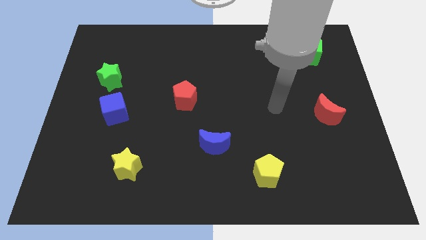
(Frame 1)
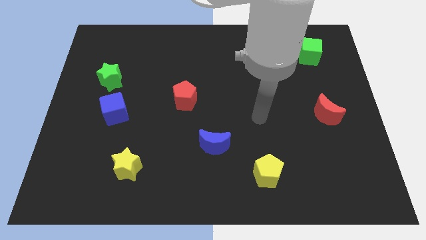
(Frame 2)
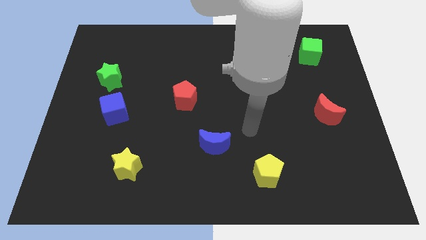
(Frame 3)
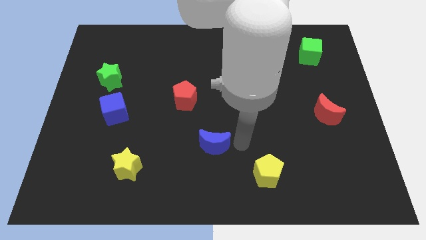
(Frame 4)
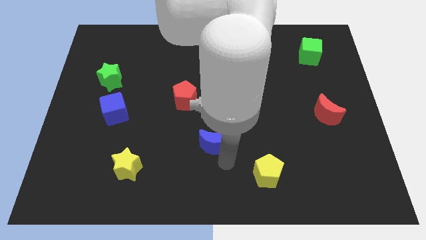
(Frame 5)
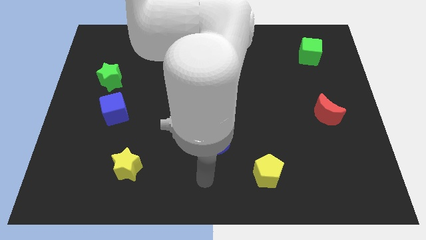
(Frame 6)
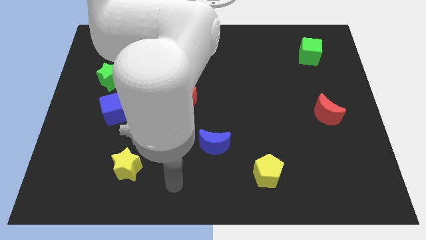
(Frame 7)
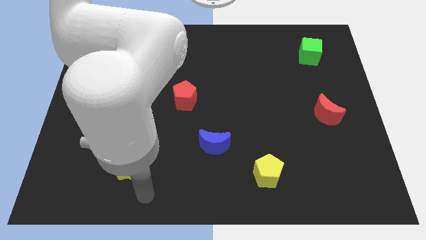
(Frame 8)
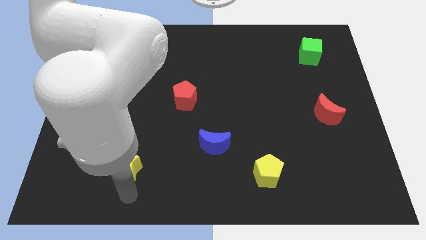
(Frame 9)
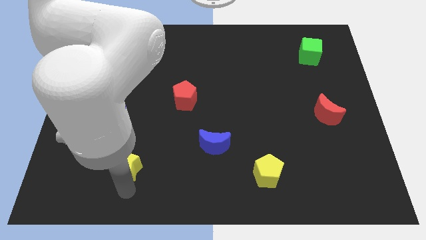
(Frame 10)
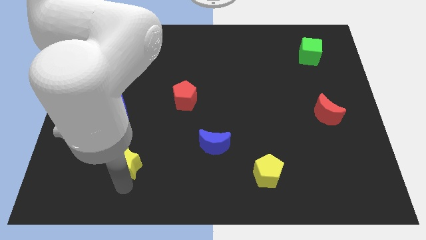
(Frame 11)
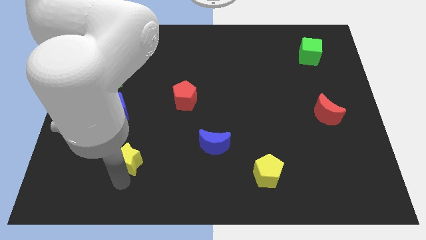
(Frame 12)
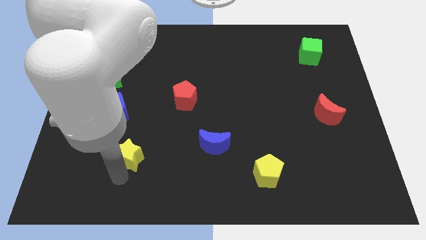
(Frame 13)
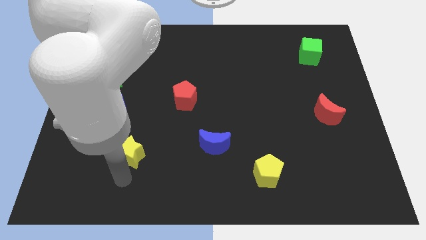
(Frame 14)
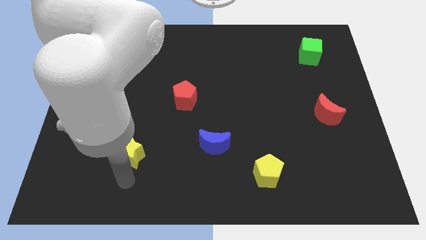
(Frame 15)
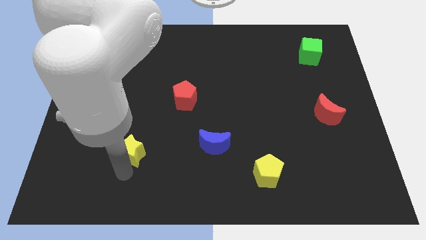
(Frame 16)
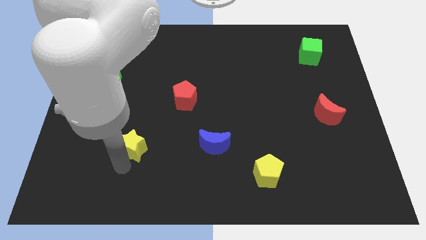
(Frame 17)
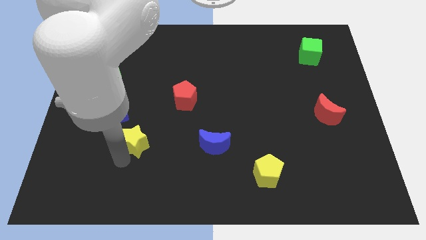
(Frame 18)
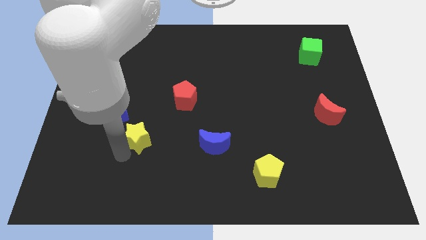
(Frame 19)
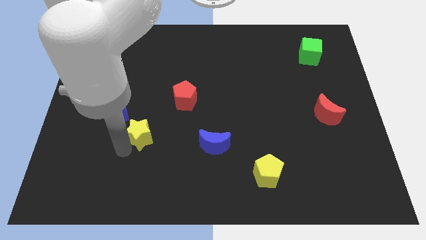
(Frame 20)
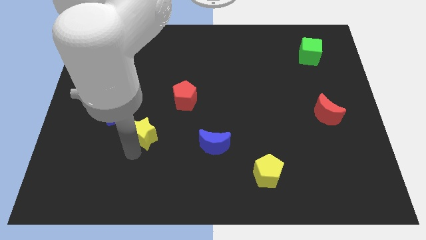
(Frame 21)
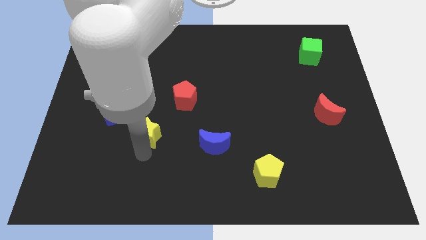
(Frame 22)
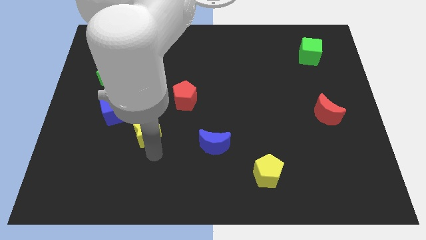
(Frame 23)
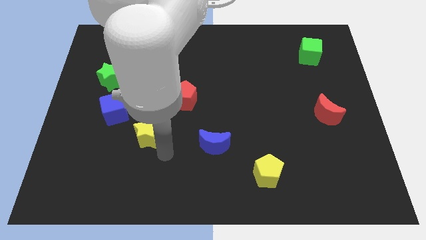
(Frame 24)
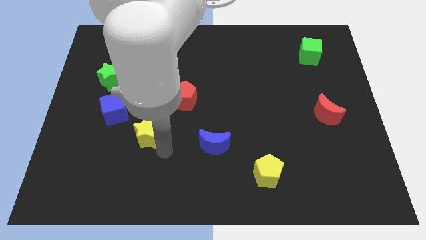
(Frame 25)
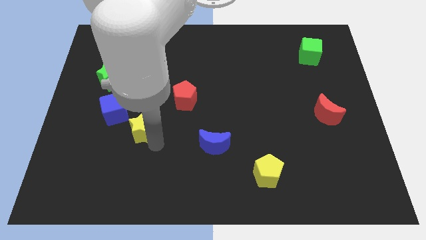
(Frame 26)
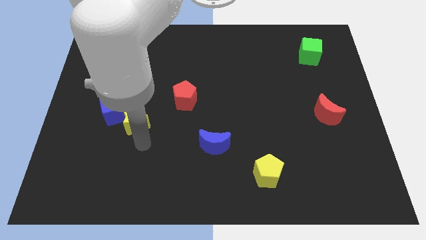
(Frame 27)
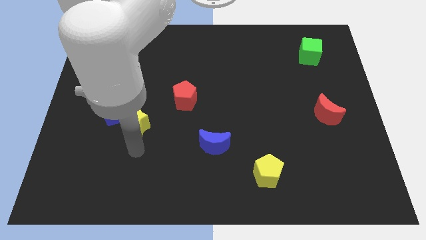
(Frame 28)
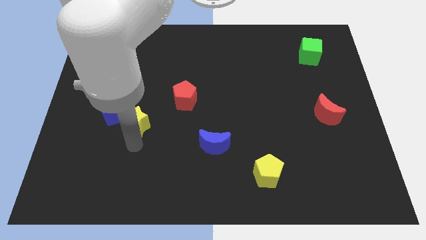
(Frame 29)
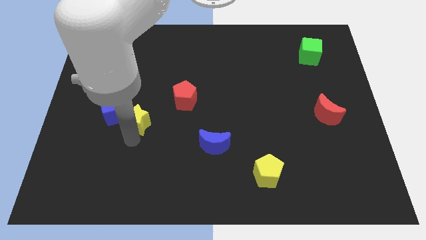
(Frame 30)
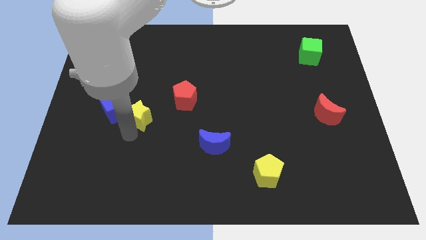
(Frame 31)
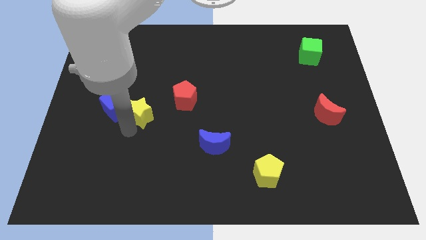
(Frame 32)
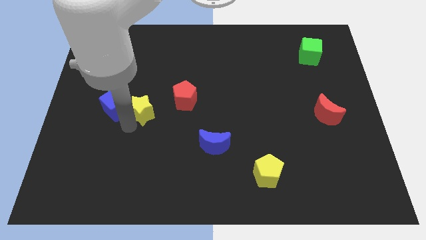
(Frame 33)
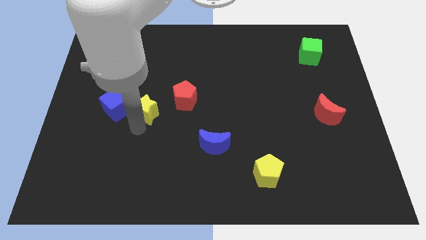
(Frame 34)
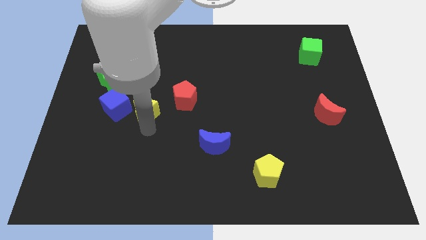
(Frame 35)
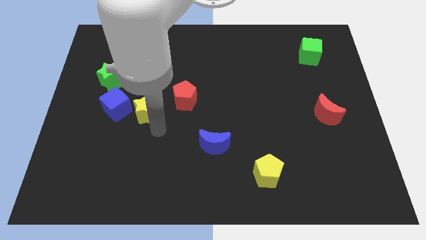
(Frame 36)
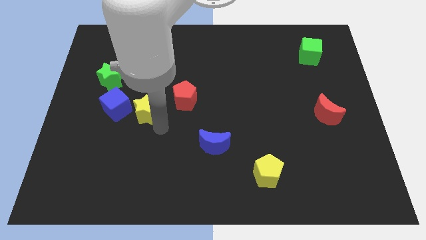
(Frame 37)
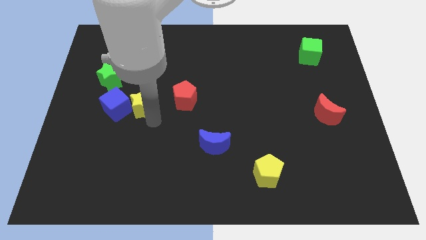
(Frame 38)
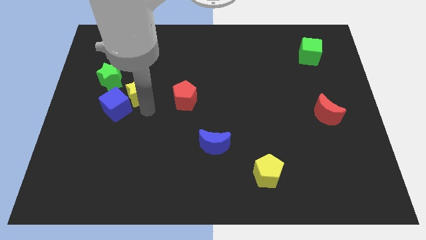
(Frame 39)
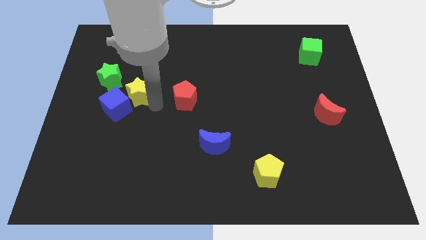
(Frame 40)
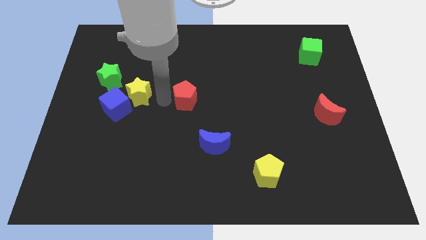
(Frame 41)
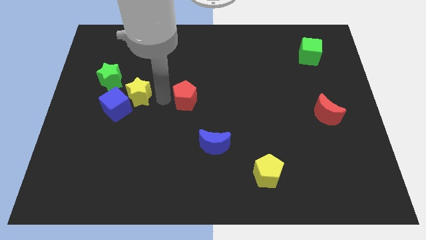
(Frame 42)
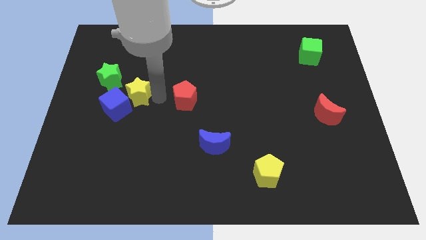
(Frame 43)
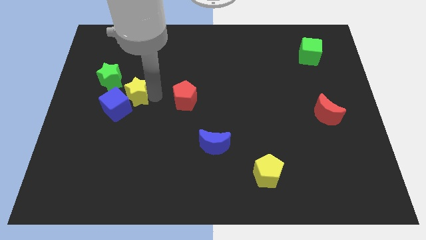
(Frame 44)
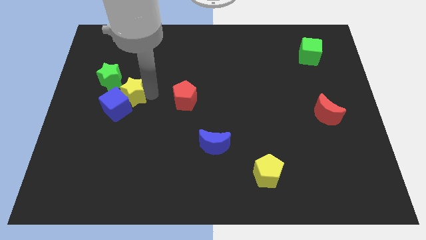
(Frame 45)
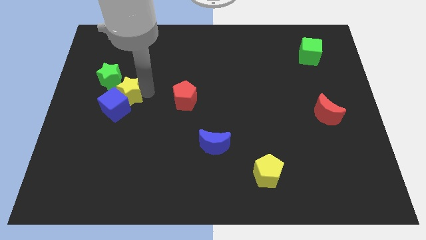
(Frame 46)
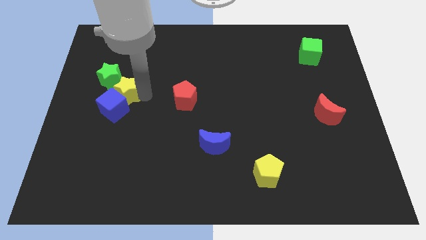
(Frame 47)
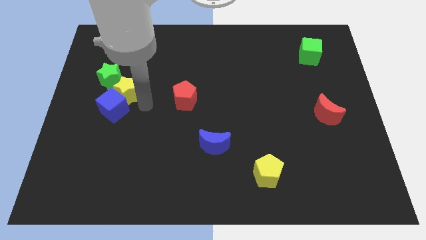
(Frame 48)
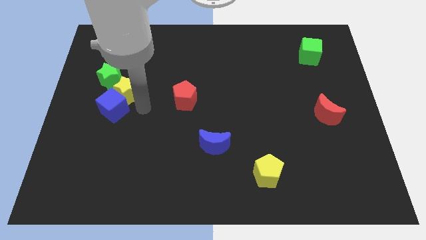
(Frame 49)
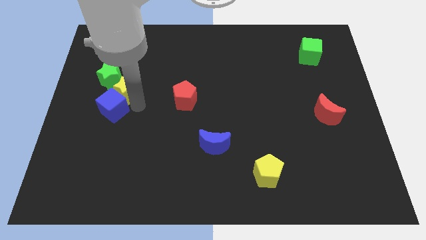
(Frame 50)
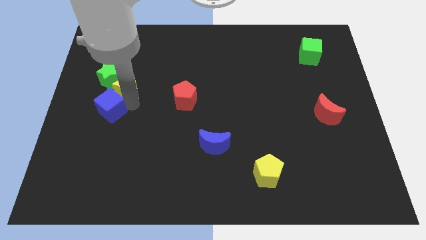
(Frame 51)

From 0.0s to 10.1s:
move the yellow star next to the green star

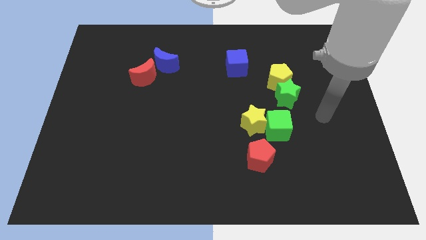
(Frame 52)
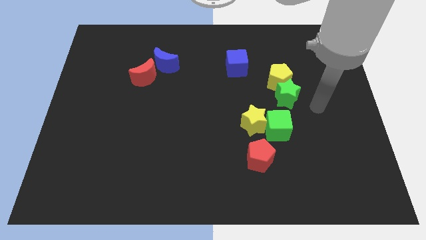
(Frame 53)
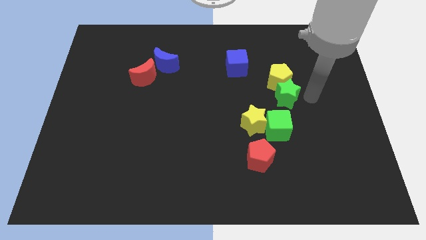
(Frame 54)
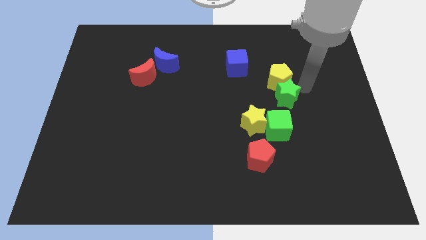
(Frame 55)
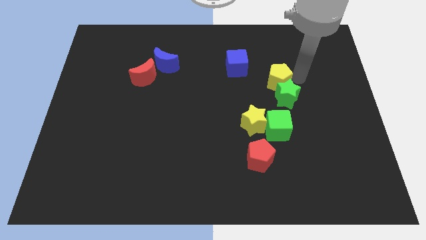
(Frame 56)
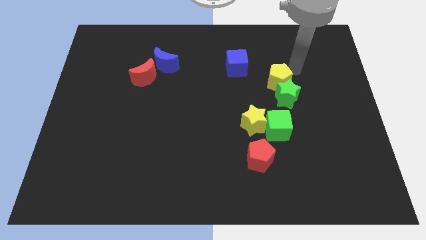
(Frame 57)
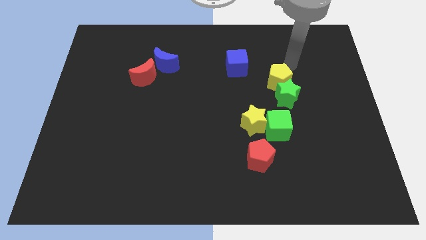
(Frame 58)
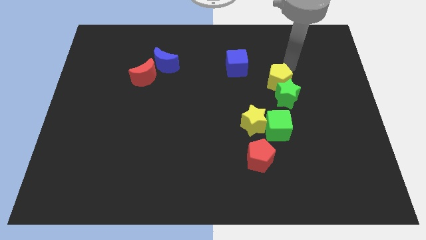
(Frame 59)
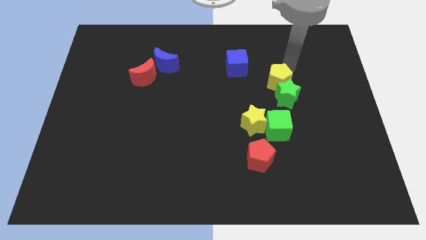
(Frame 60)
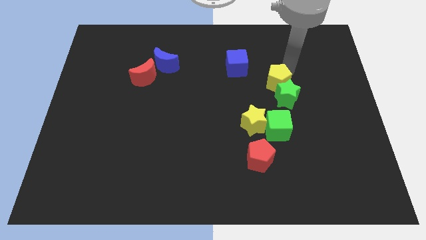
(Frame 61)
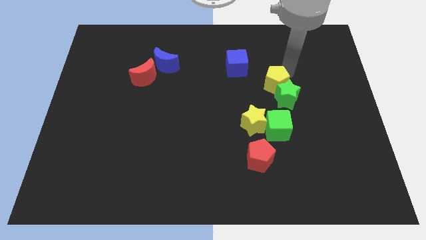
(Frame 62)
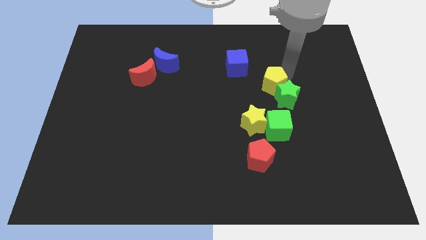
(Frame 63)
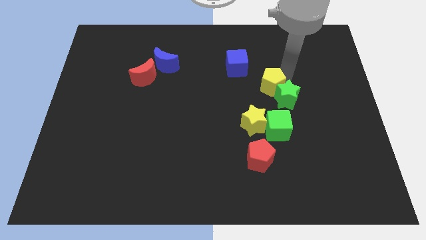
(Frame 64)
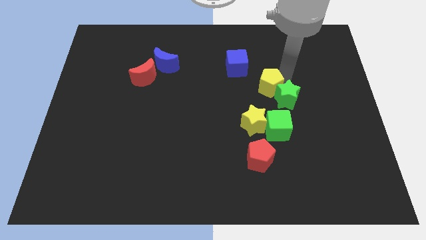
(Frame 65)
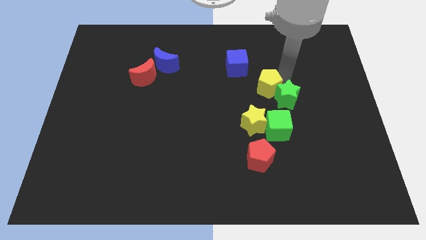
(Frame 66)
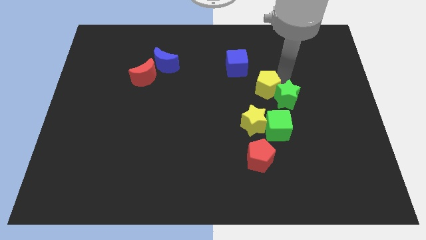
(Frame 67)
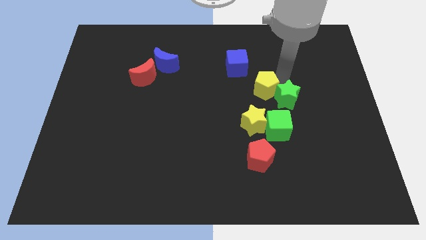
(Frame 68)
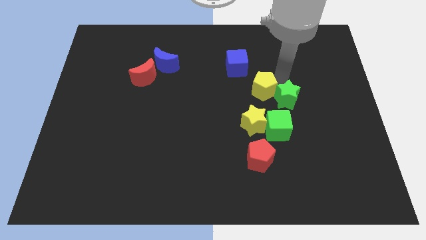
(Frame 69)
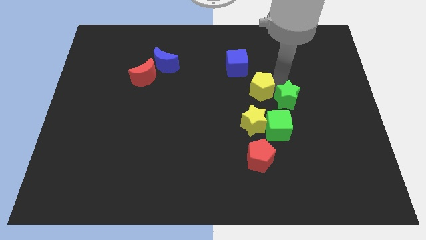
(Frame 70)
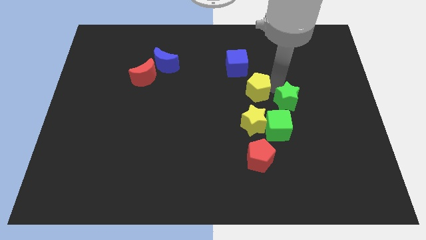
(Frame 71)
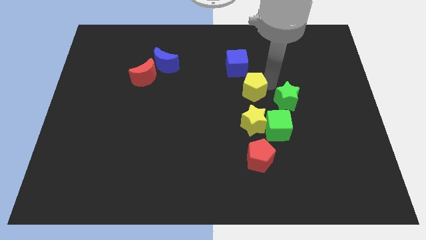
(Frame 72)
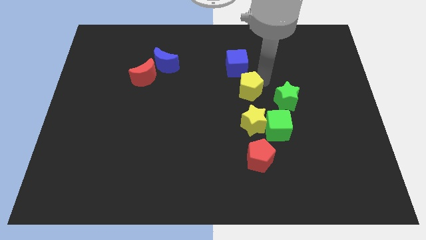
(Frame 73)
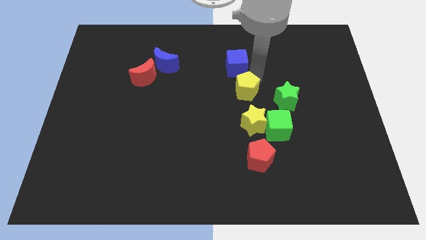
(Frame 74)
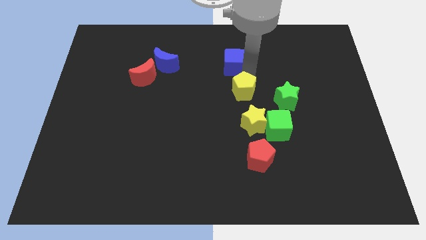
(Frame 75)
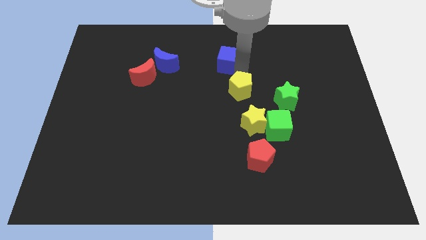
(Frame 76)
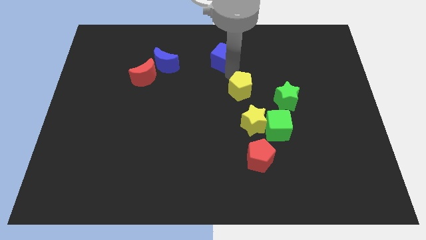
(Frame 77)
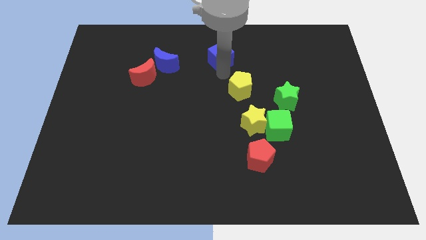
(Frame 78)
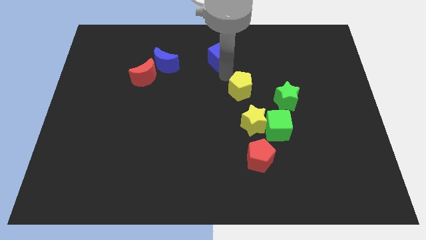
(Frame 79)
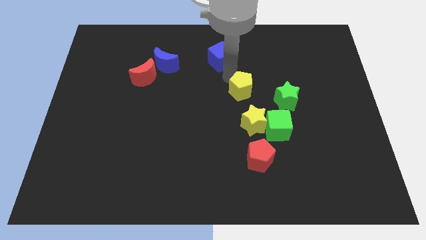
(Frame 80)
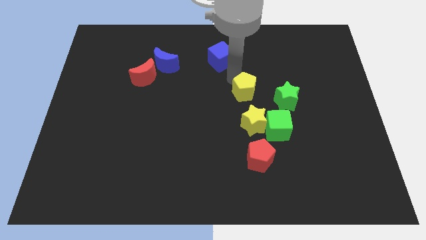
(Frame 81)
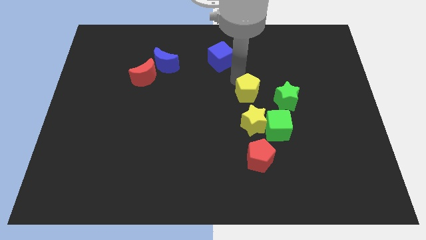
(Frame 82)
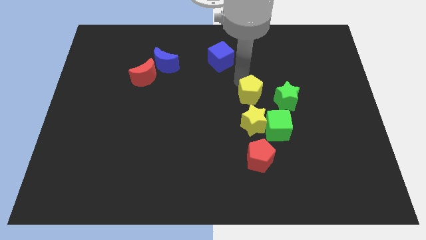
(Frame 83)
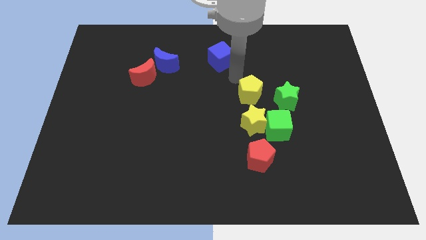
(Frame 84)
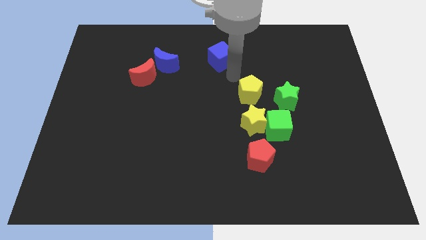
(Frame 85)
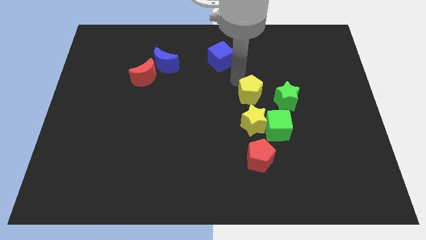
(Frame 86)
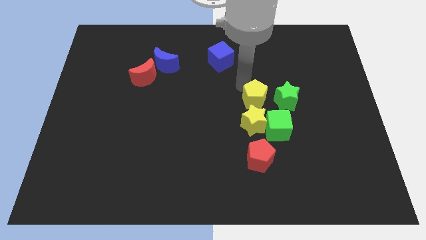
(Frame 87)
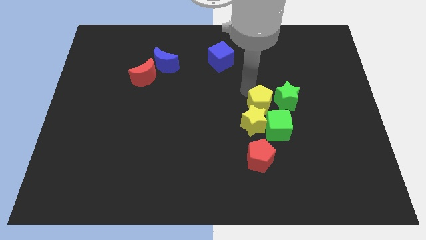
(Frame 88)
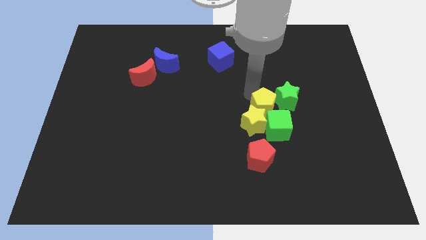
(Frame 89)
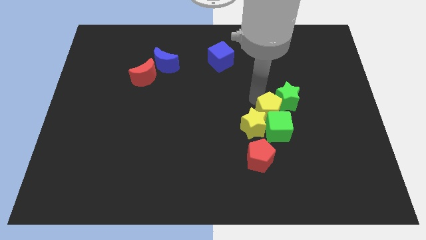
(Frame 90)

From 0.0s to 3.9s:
slide the yellow pentagon next to the green cube
